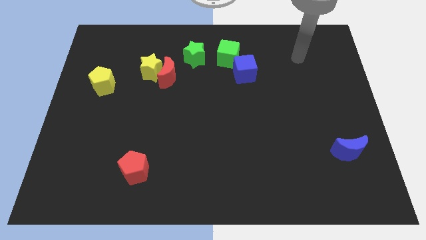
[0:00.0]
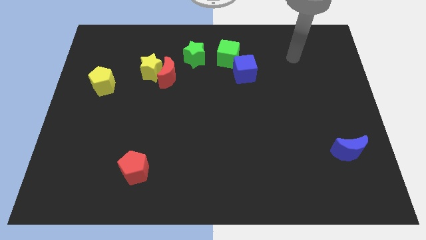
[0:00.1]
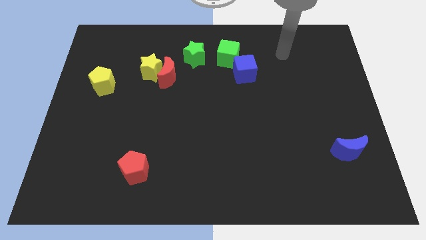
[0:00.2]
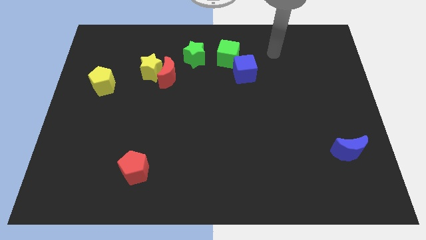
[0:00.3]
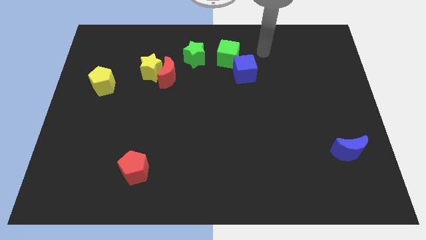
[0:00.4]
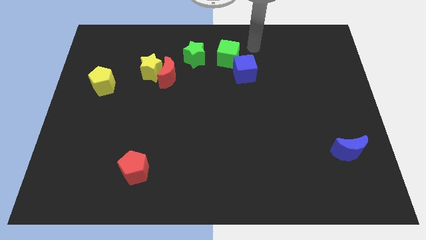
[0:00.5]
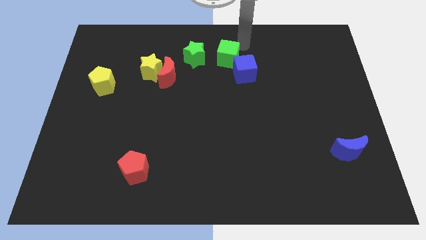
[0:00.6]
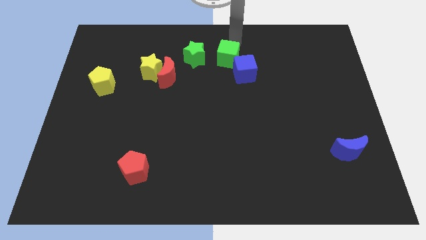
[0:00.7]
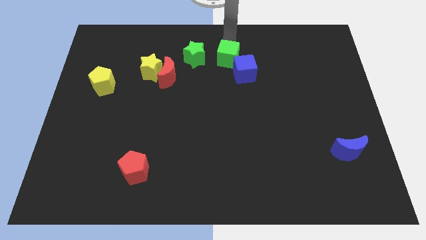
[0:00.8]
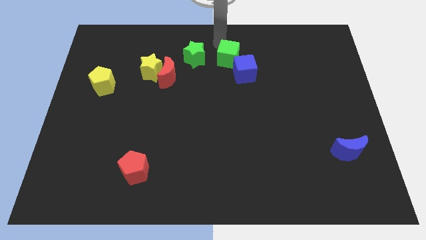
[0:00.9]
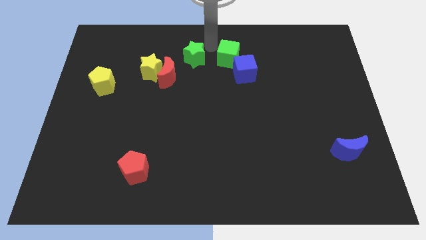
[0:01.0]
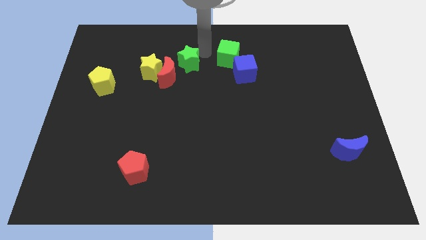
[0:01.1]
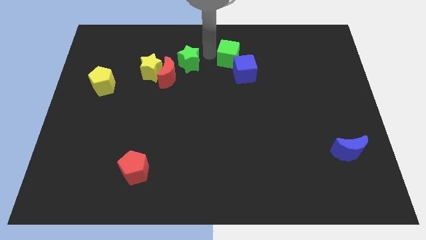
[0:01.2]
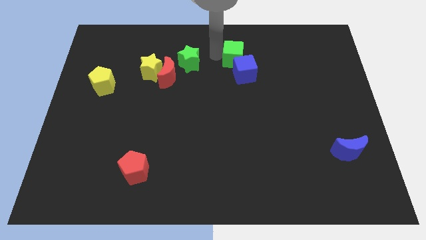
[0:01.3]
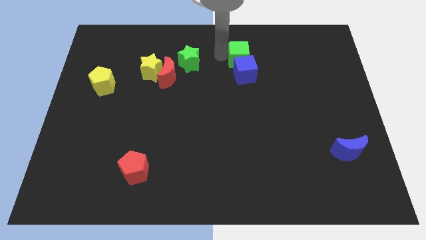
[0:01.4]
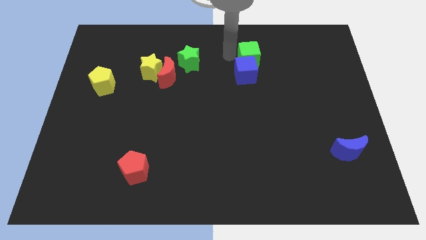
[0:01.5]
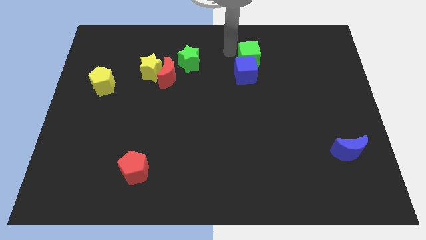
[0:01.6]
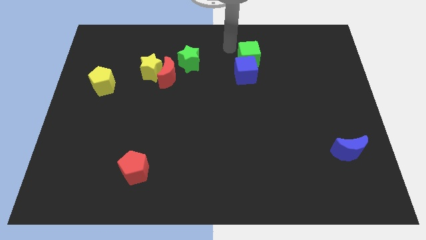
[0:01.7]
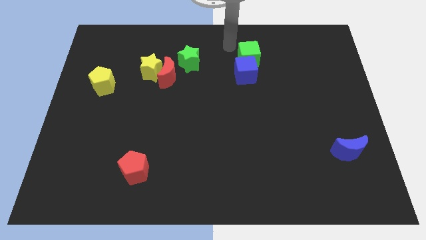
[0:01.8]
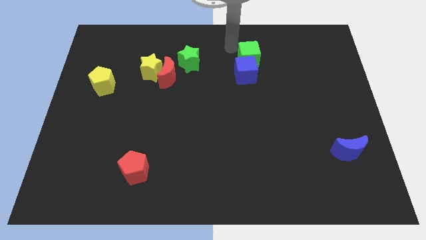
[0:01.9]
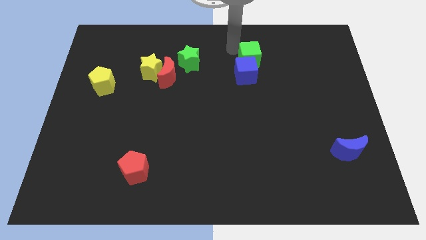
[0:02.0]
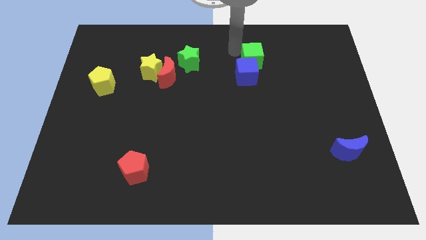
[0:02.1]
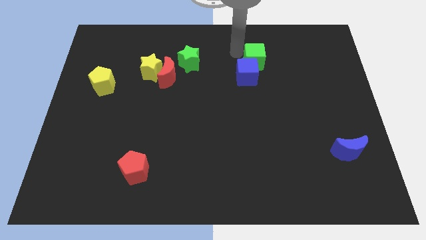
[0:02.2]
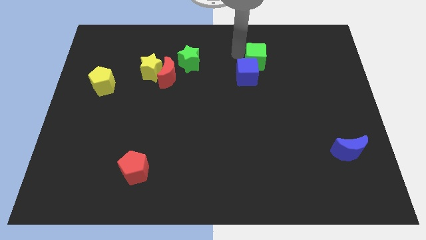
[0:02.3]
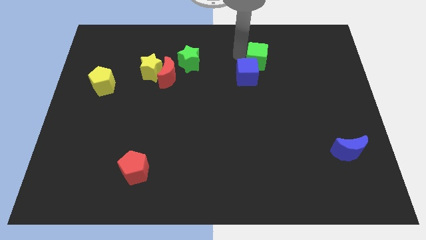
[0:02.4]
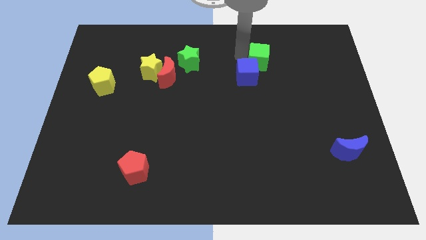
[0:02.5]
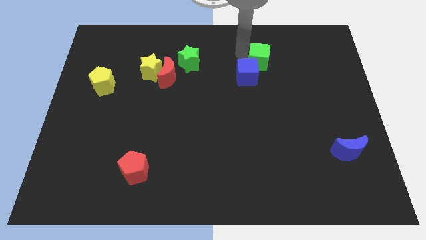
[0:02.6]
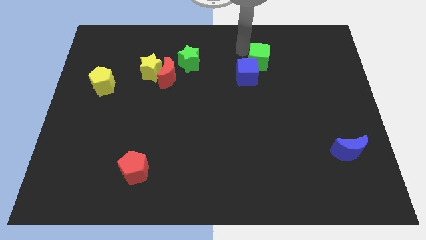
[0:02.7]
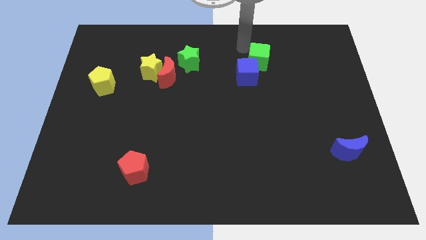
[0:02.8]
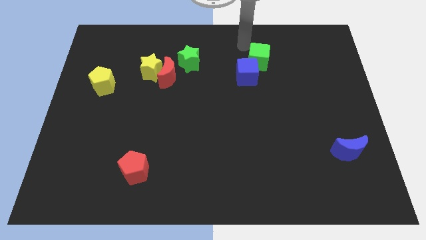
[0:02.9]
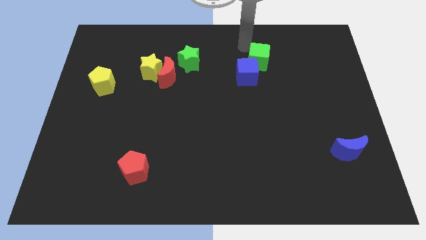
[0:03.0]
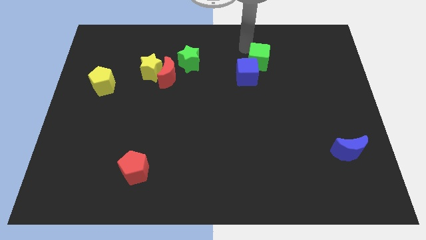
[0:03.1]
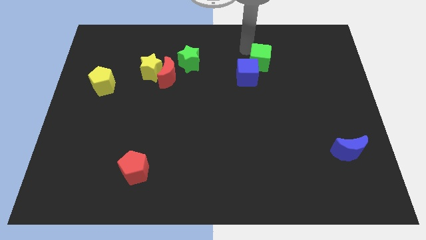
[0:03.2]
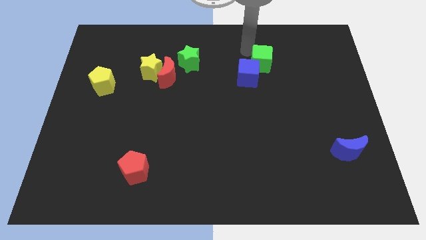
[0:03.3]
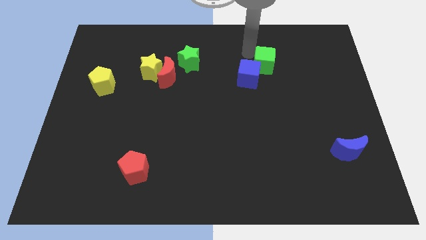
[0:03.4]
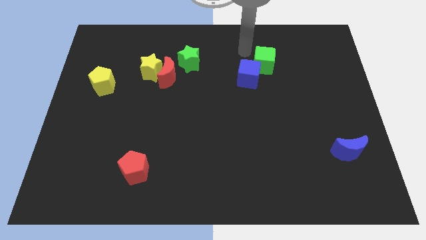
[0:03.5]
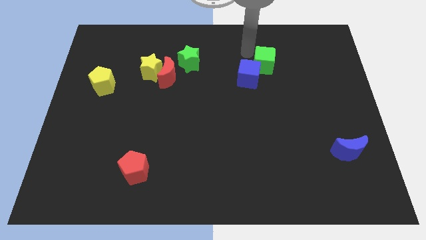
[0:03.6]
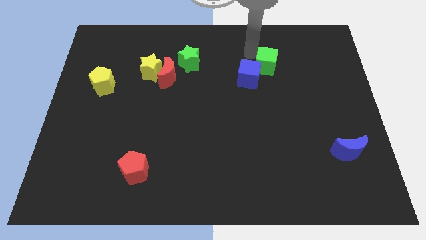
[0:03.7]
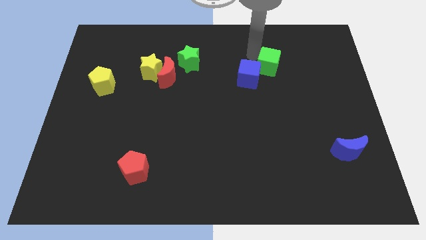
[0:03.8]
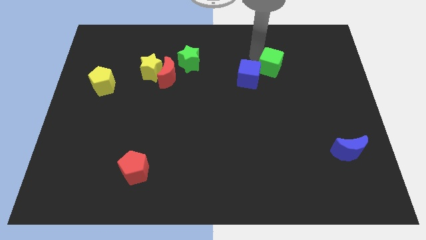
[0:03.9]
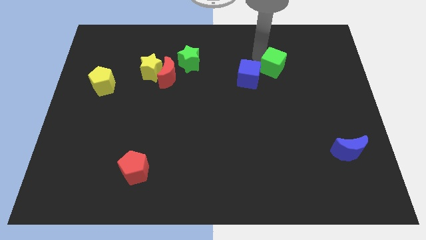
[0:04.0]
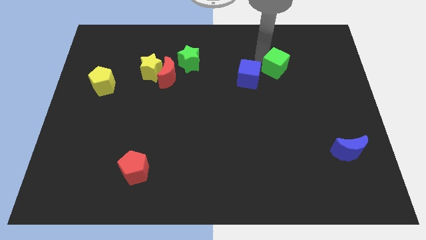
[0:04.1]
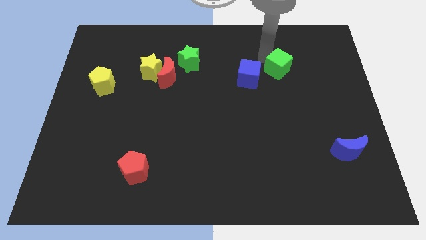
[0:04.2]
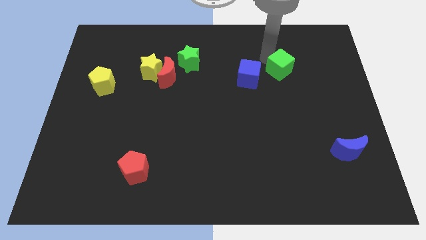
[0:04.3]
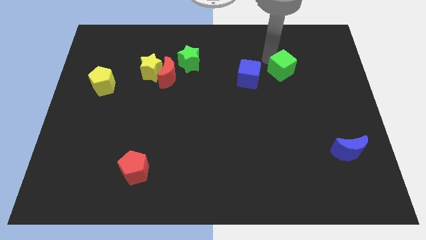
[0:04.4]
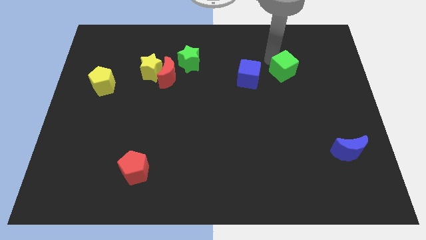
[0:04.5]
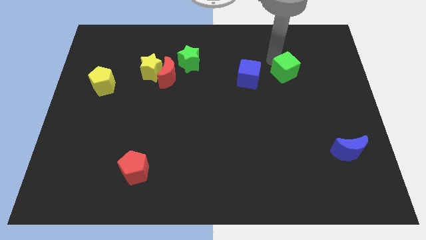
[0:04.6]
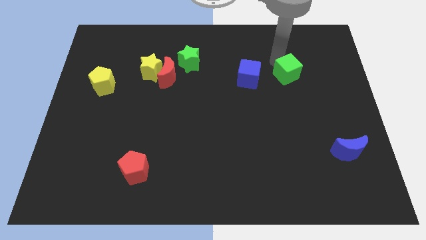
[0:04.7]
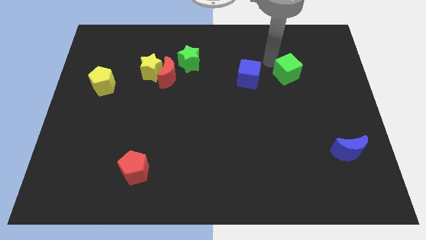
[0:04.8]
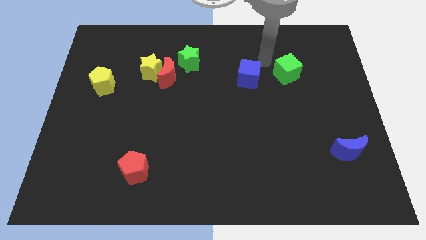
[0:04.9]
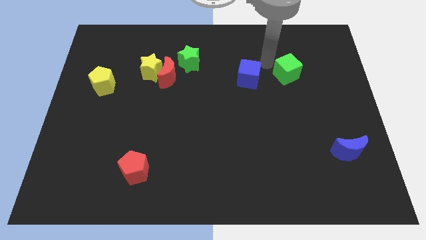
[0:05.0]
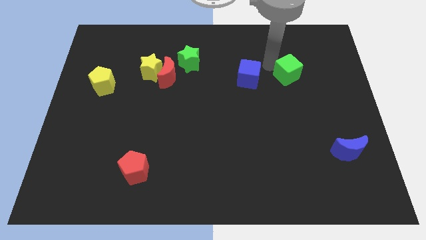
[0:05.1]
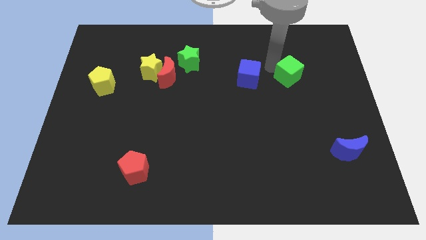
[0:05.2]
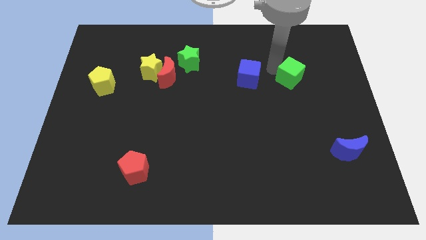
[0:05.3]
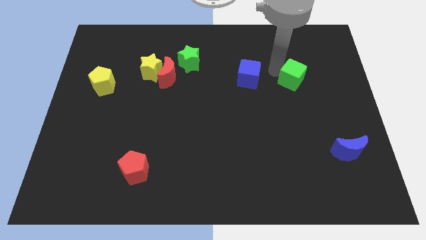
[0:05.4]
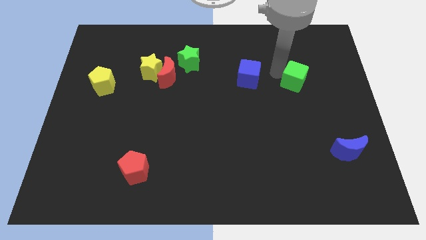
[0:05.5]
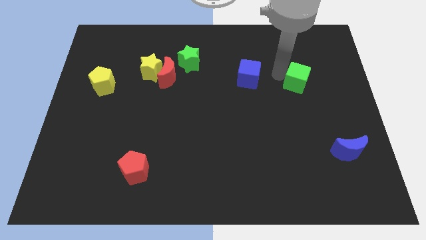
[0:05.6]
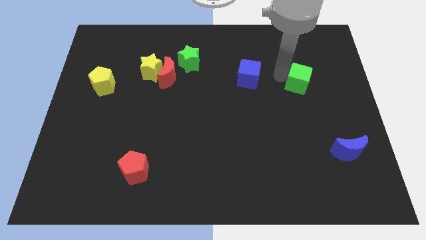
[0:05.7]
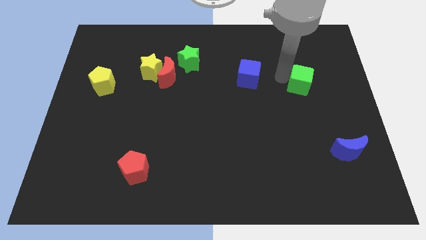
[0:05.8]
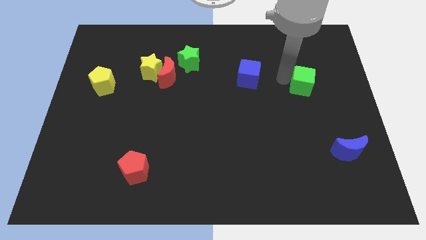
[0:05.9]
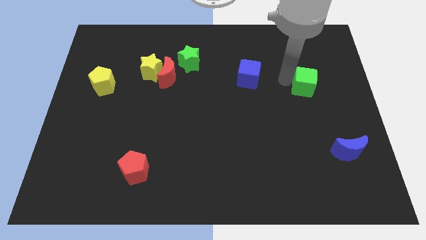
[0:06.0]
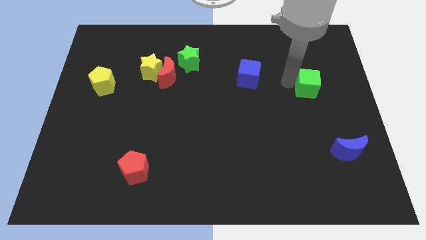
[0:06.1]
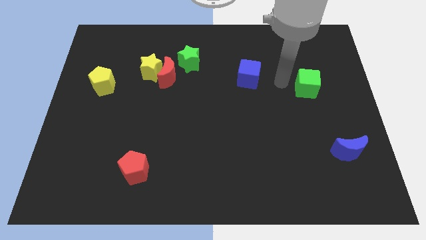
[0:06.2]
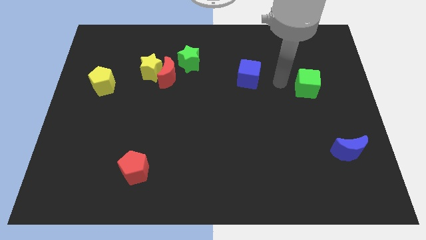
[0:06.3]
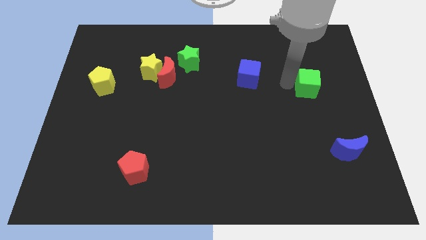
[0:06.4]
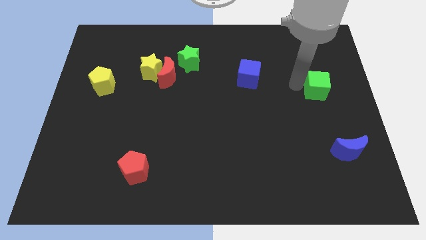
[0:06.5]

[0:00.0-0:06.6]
slide the green cube to the right side of the board
